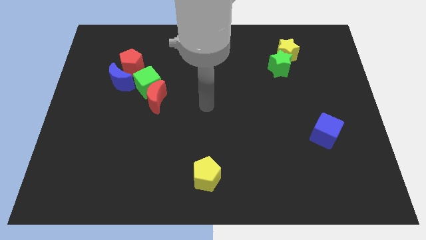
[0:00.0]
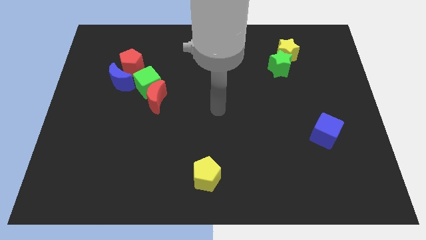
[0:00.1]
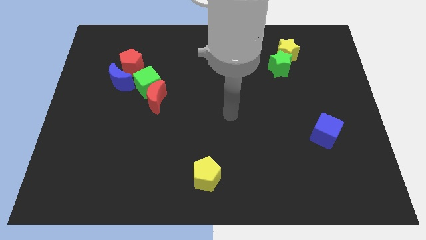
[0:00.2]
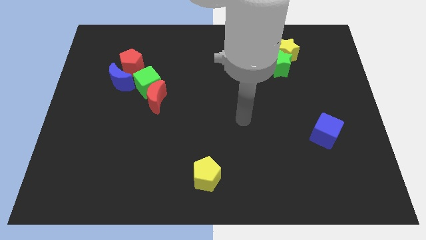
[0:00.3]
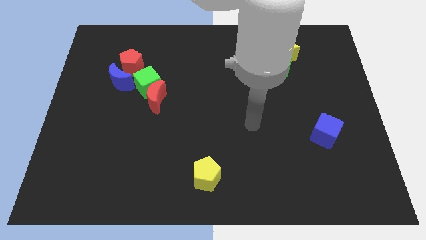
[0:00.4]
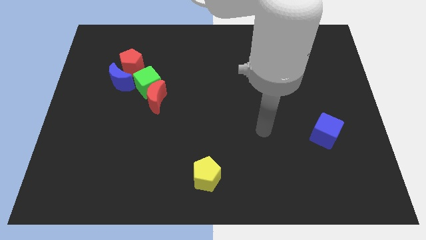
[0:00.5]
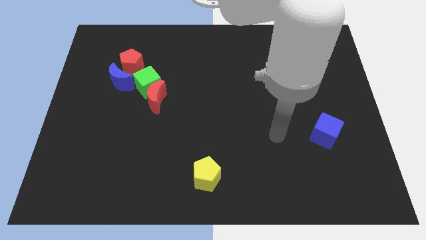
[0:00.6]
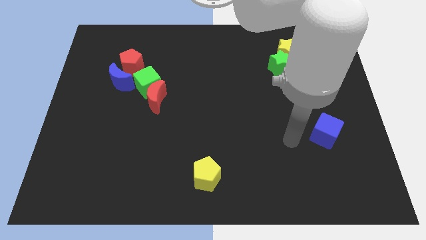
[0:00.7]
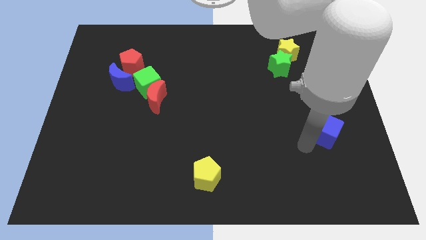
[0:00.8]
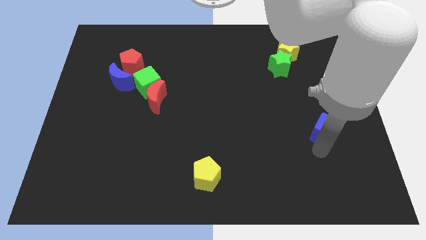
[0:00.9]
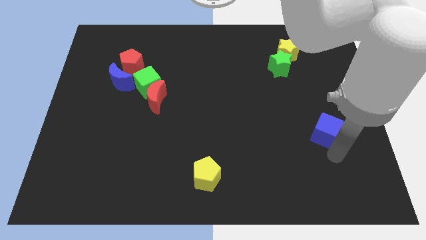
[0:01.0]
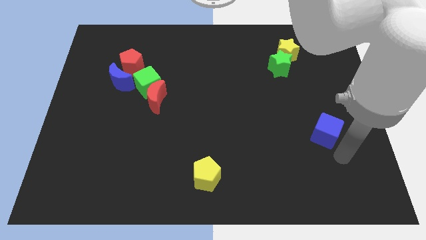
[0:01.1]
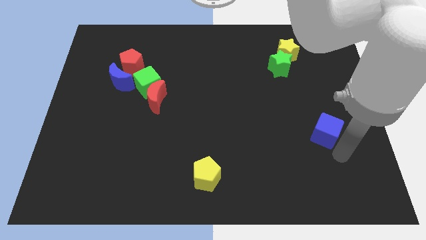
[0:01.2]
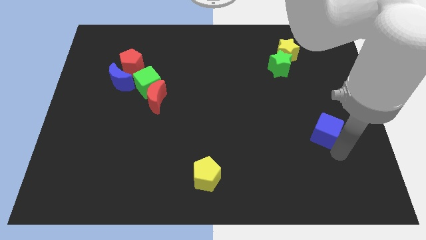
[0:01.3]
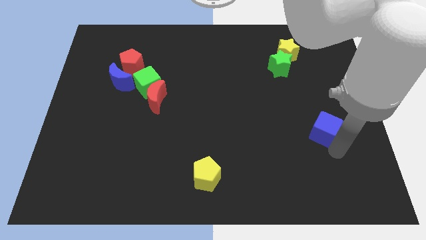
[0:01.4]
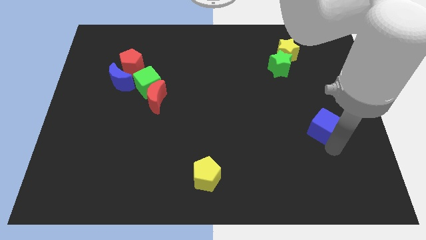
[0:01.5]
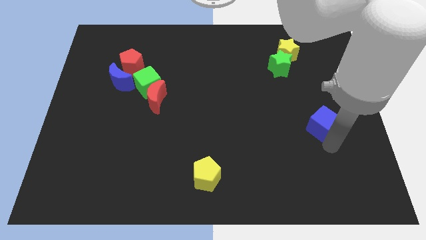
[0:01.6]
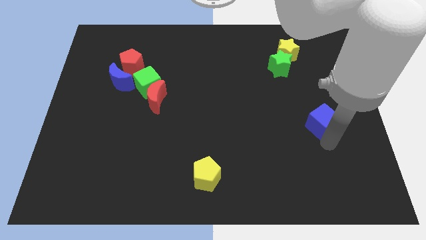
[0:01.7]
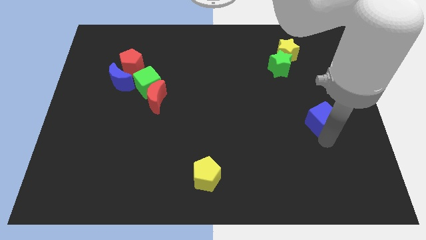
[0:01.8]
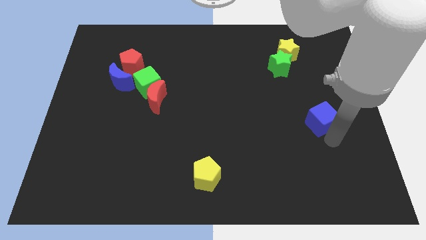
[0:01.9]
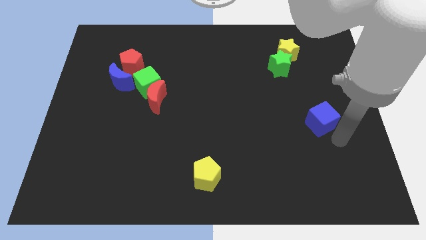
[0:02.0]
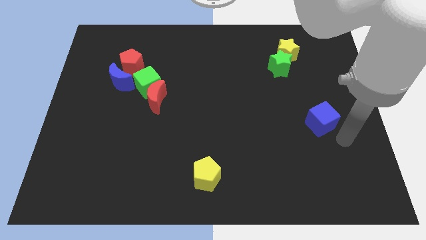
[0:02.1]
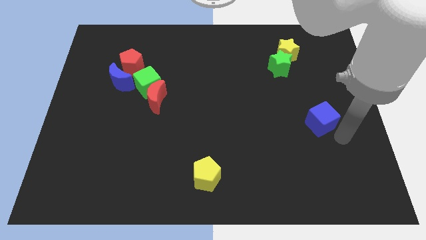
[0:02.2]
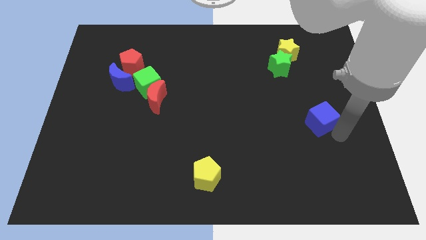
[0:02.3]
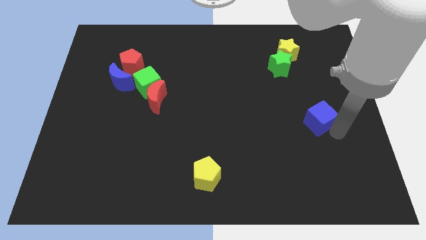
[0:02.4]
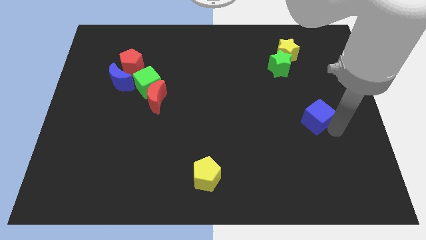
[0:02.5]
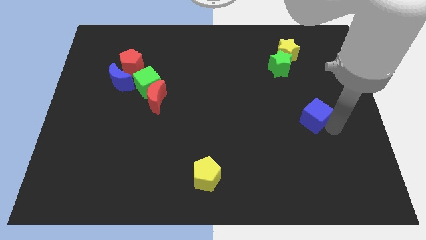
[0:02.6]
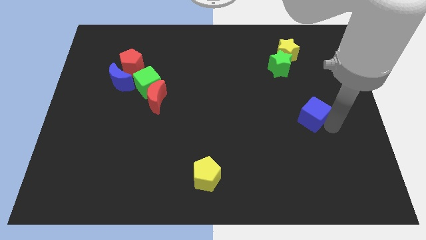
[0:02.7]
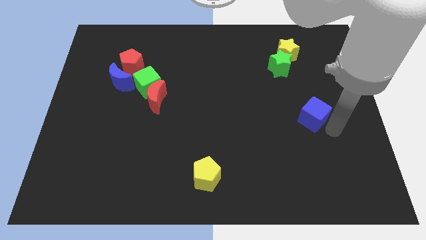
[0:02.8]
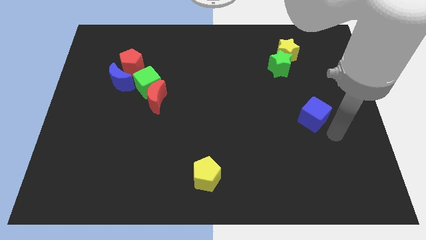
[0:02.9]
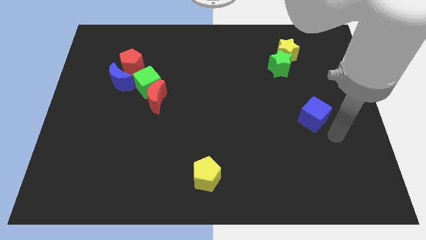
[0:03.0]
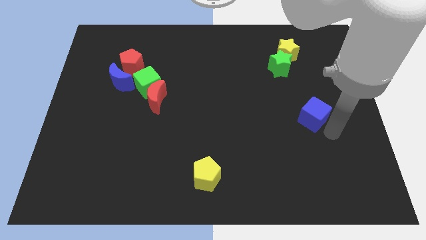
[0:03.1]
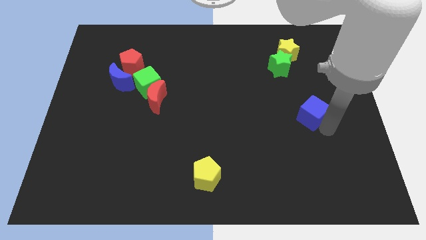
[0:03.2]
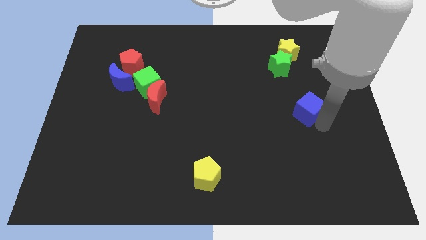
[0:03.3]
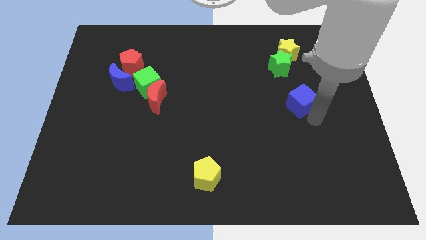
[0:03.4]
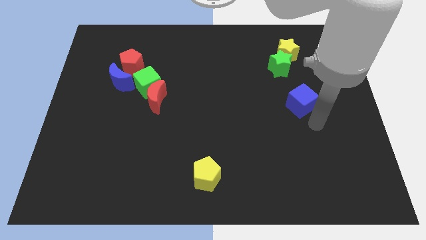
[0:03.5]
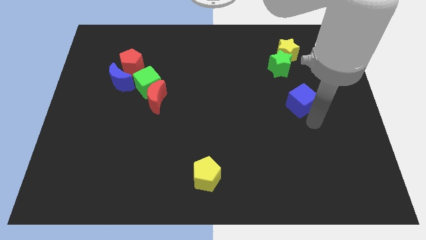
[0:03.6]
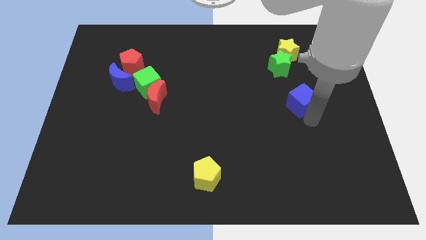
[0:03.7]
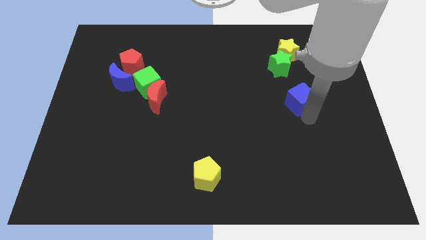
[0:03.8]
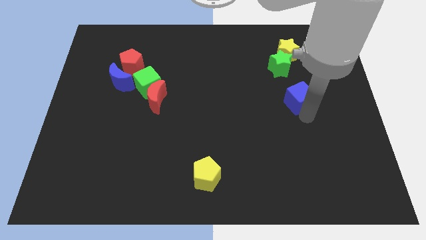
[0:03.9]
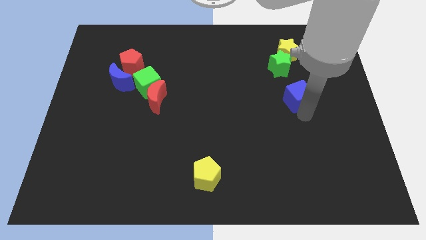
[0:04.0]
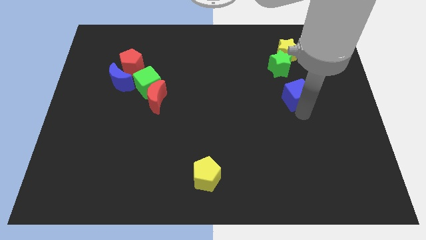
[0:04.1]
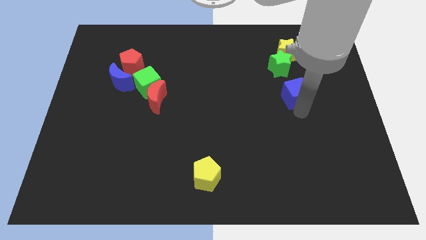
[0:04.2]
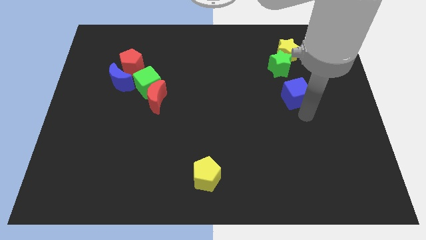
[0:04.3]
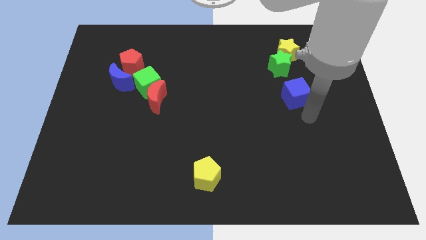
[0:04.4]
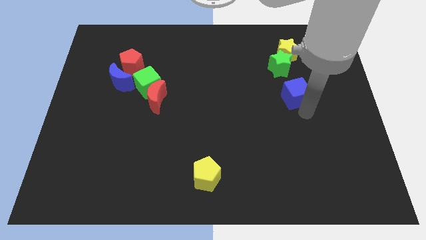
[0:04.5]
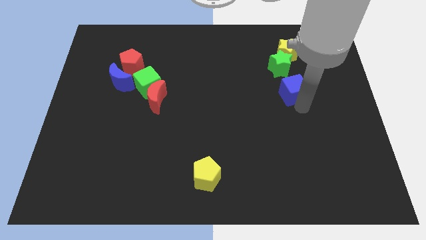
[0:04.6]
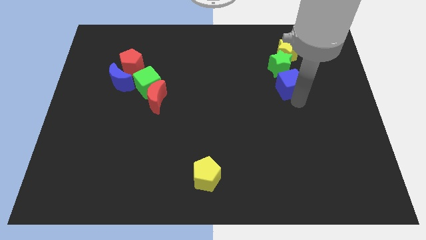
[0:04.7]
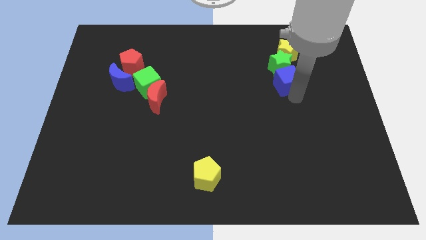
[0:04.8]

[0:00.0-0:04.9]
put the blue cube next to the green star

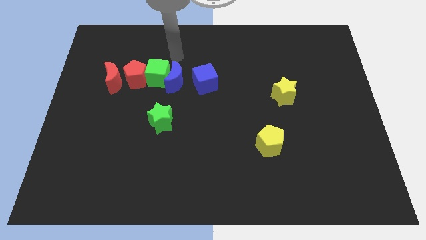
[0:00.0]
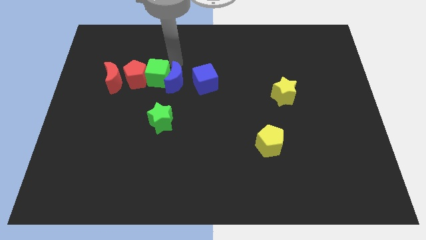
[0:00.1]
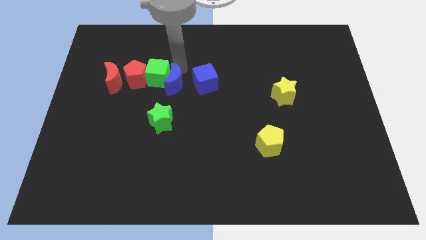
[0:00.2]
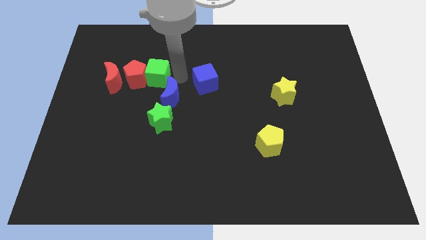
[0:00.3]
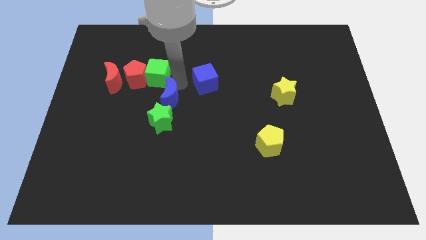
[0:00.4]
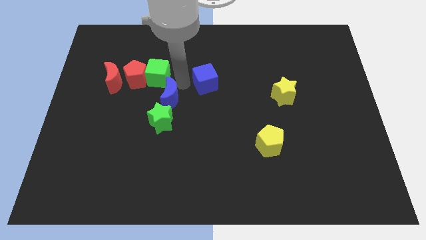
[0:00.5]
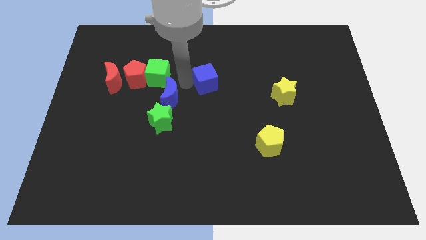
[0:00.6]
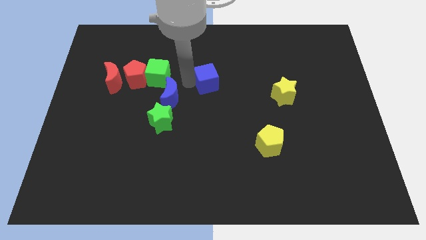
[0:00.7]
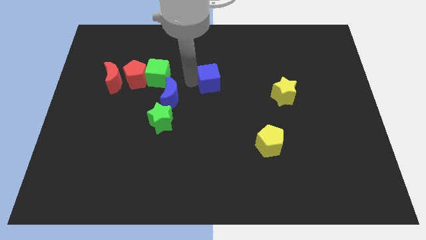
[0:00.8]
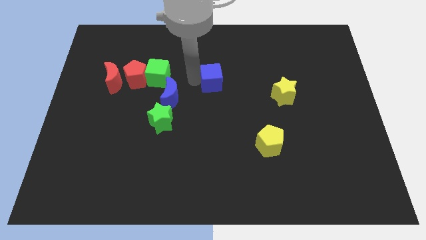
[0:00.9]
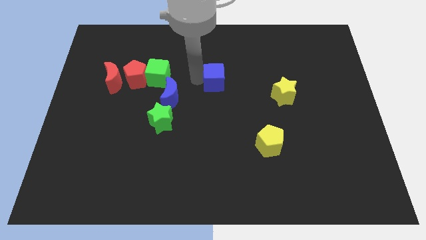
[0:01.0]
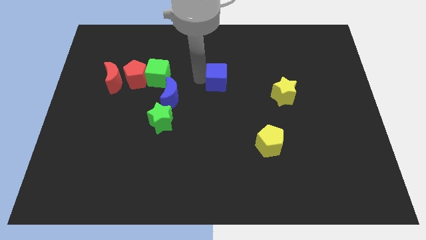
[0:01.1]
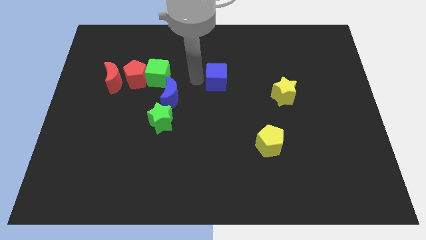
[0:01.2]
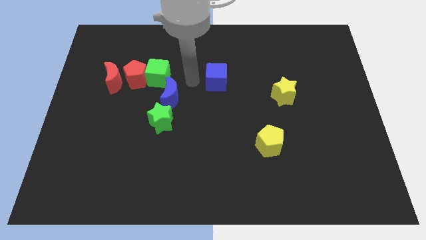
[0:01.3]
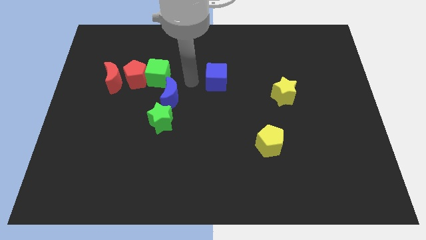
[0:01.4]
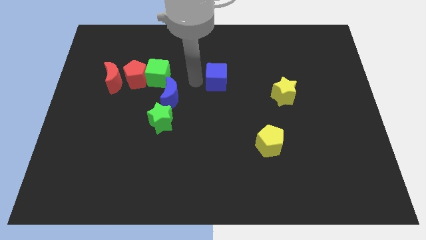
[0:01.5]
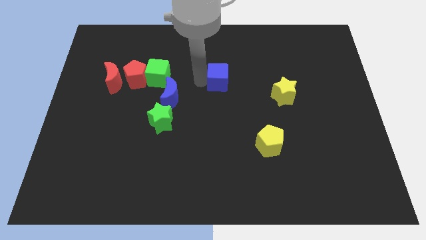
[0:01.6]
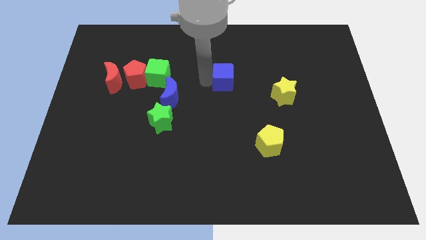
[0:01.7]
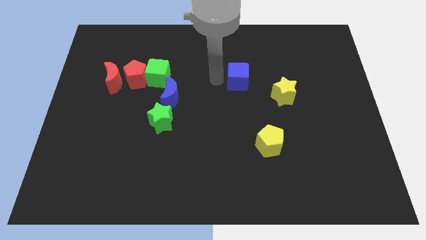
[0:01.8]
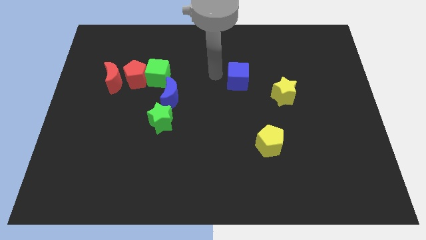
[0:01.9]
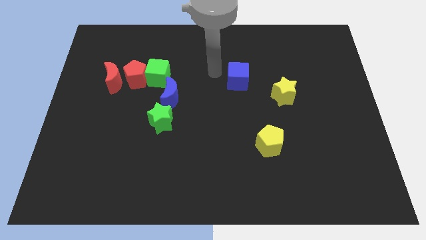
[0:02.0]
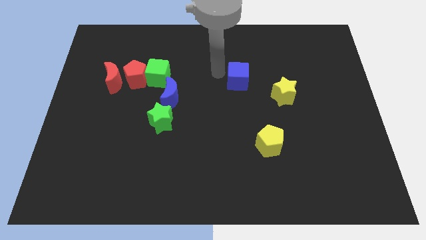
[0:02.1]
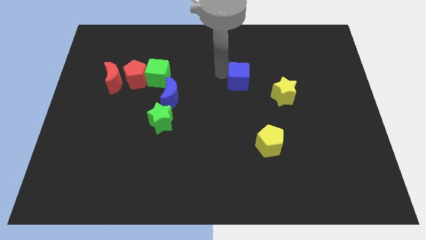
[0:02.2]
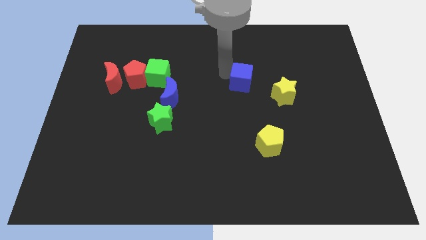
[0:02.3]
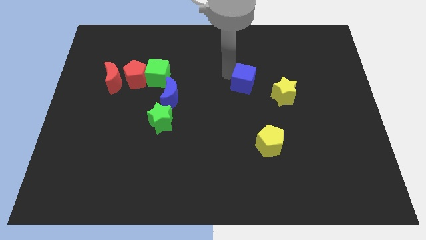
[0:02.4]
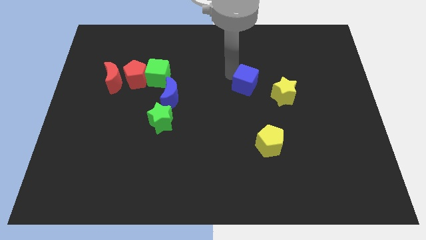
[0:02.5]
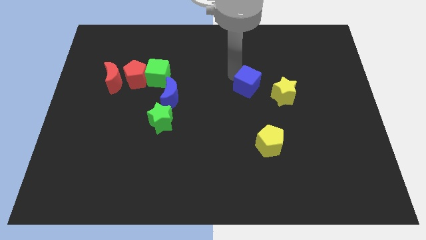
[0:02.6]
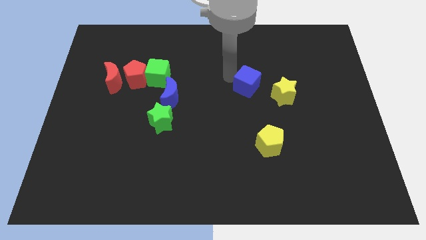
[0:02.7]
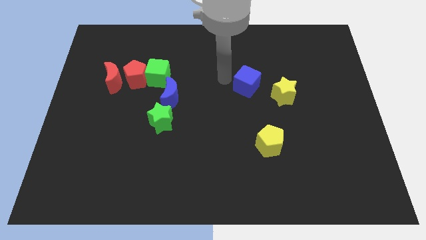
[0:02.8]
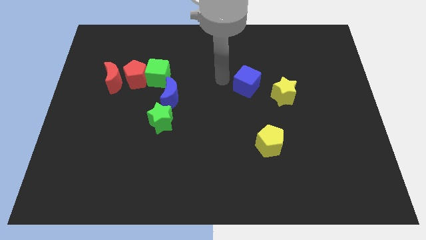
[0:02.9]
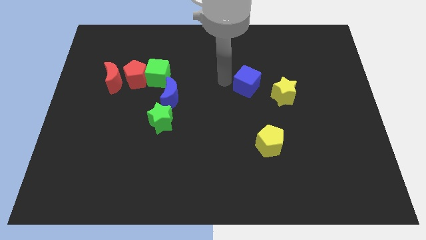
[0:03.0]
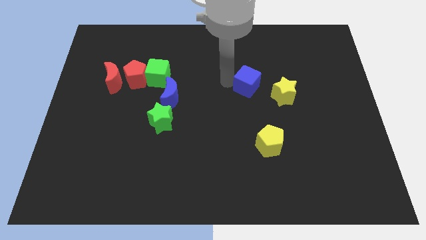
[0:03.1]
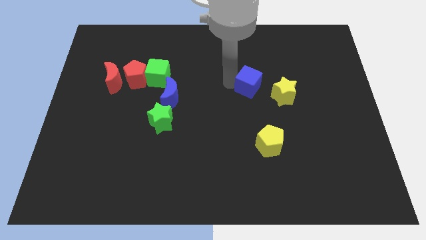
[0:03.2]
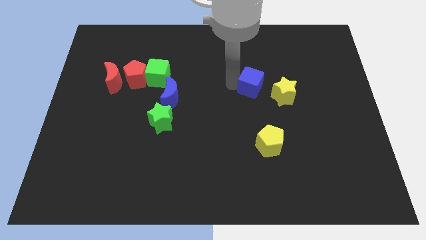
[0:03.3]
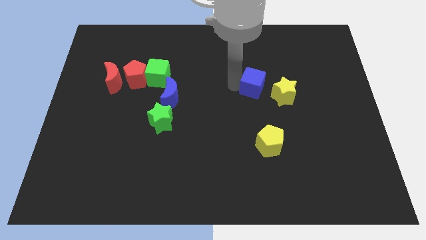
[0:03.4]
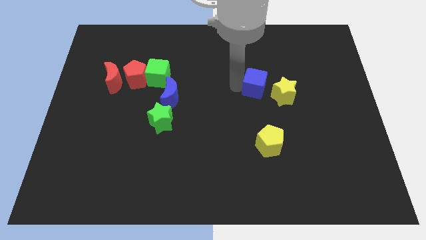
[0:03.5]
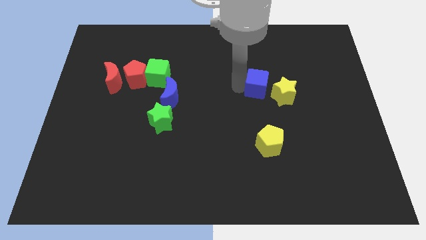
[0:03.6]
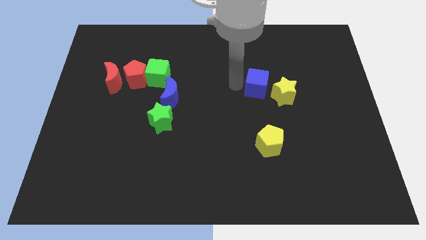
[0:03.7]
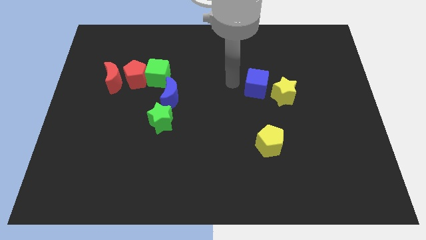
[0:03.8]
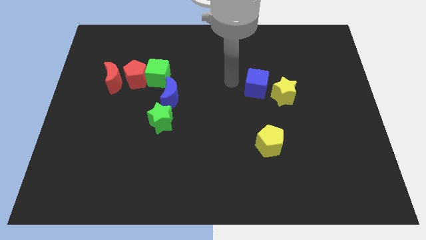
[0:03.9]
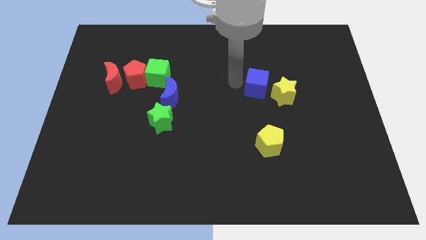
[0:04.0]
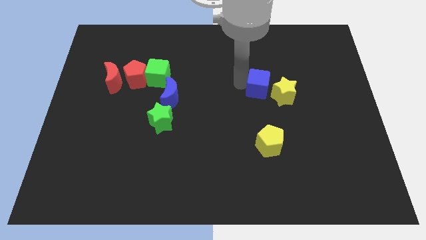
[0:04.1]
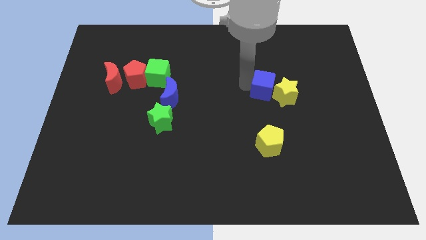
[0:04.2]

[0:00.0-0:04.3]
put the blue cube close to the yellow star
